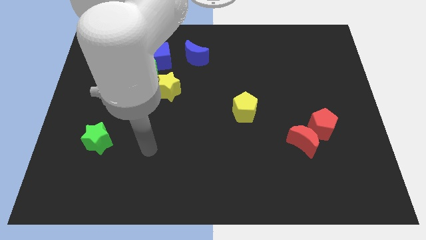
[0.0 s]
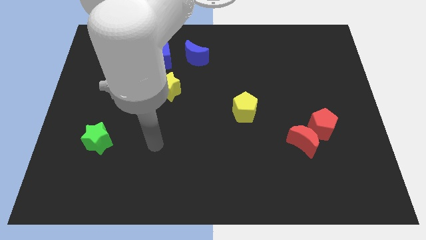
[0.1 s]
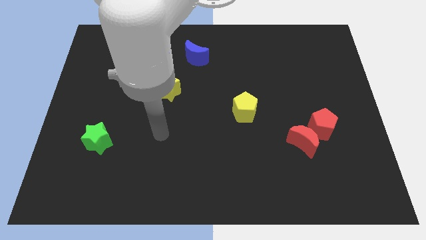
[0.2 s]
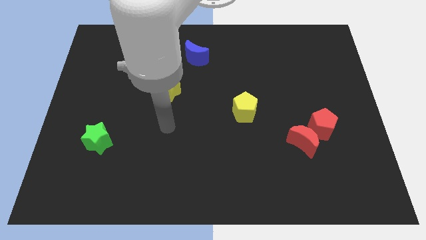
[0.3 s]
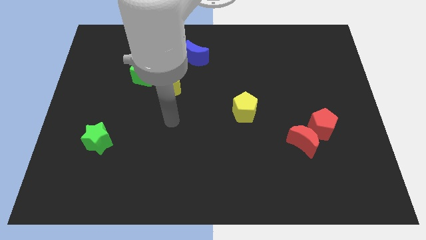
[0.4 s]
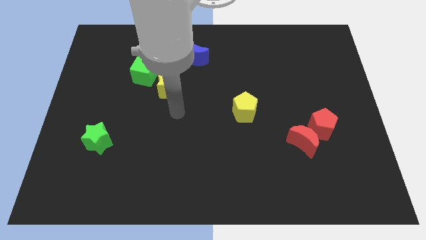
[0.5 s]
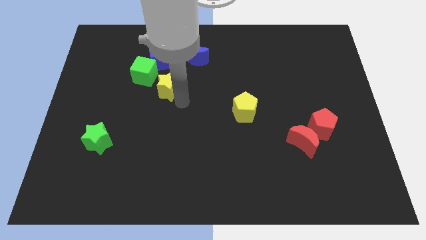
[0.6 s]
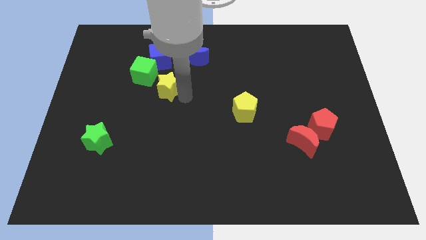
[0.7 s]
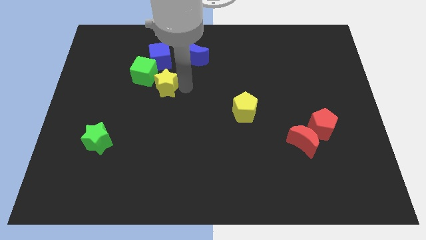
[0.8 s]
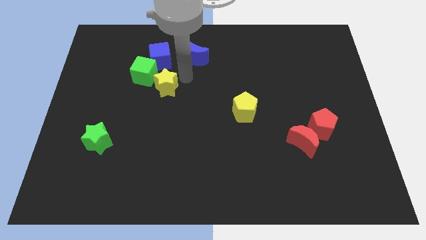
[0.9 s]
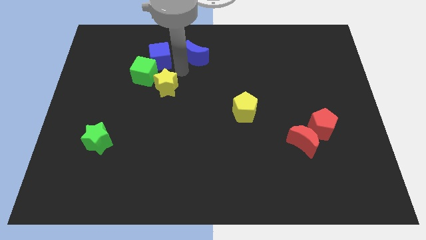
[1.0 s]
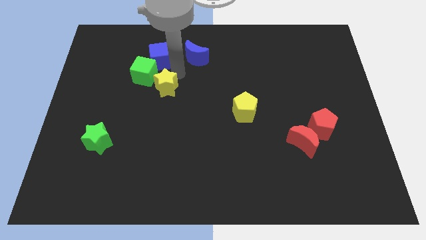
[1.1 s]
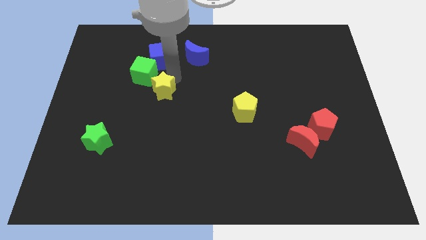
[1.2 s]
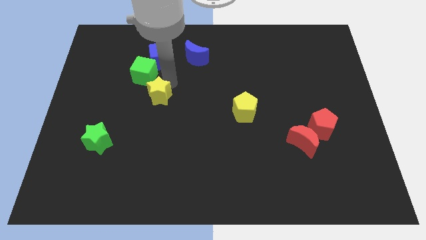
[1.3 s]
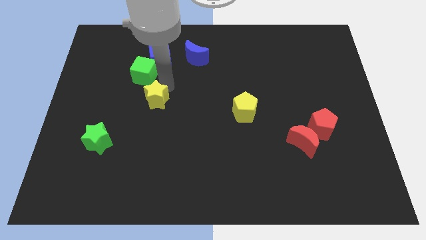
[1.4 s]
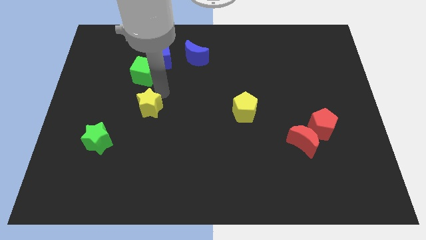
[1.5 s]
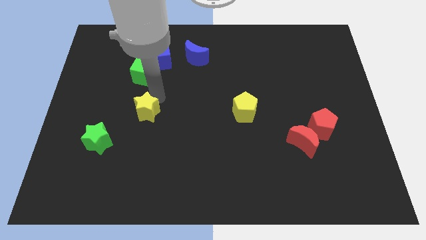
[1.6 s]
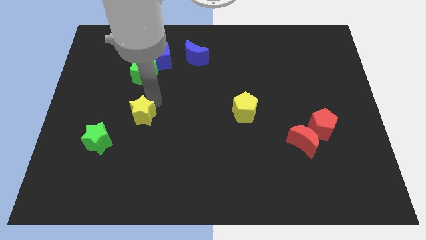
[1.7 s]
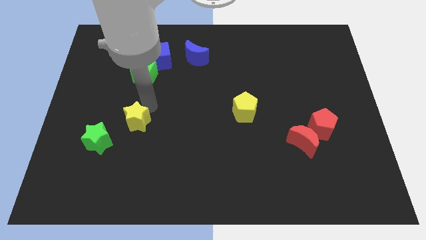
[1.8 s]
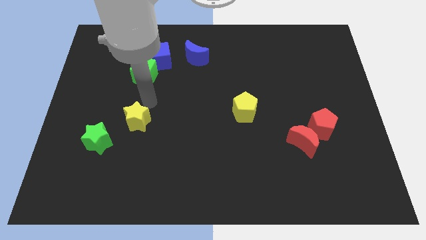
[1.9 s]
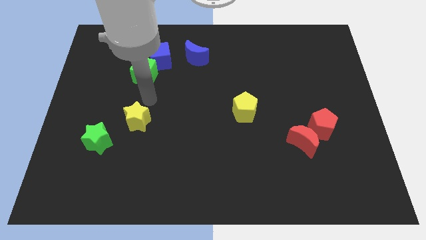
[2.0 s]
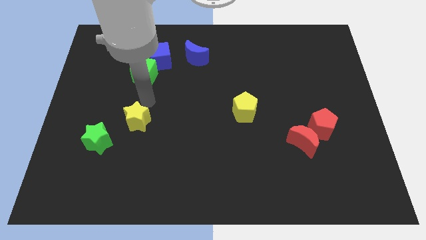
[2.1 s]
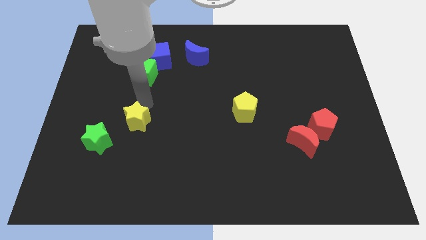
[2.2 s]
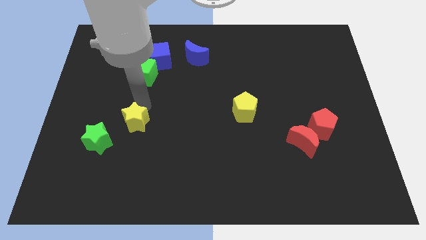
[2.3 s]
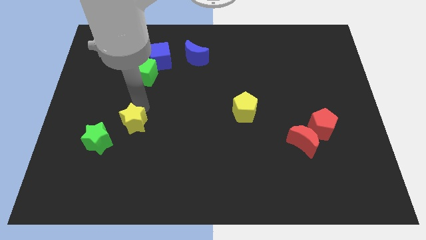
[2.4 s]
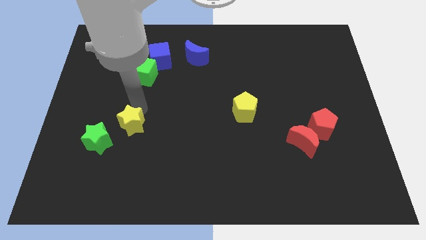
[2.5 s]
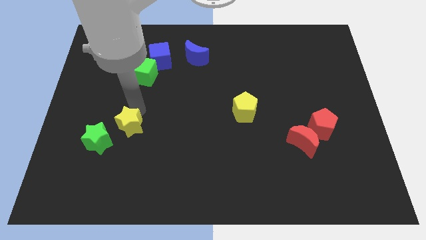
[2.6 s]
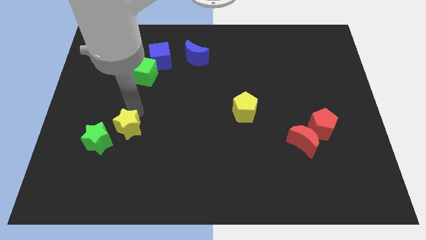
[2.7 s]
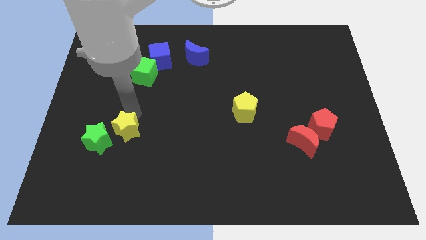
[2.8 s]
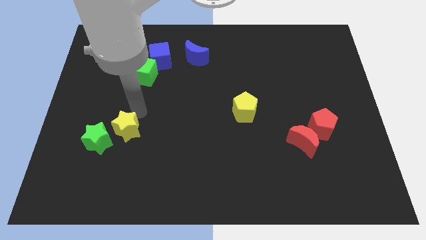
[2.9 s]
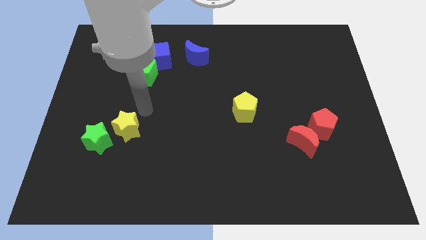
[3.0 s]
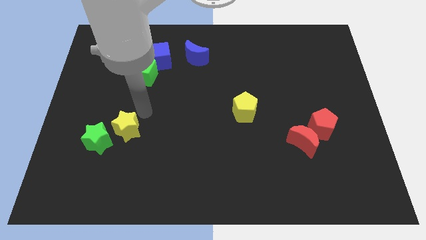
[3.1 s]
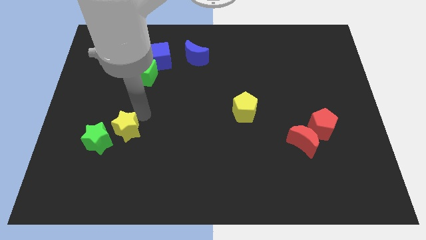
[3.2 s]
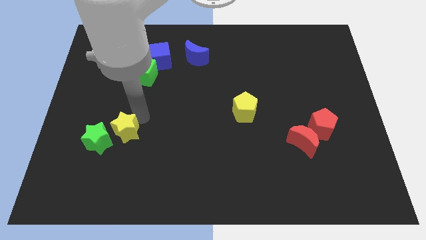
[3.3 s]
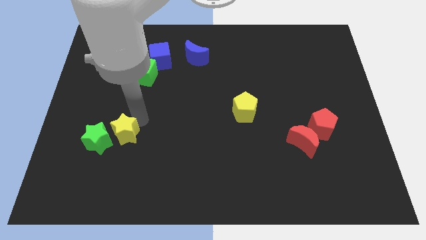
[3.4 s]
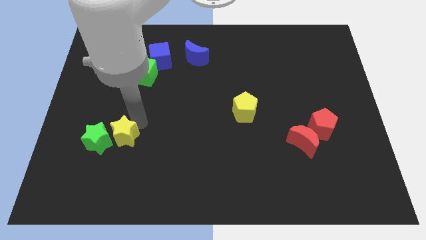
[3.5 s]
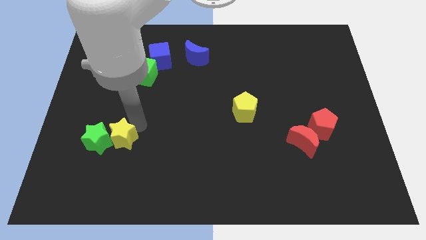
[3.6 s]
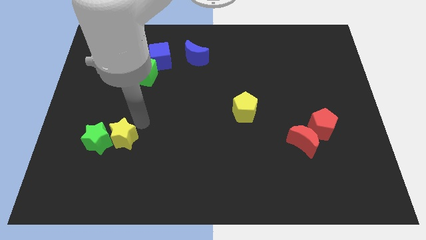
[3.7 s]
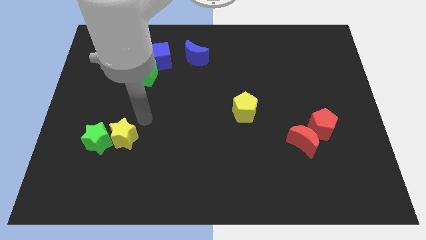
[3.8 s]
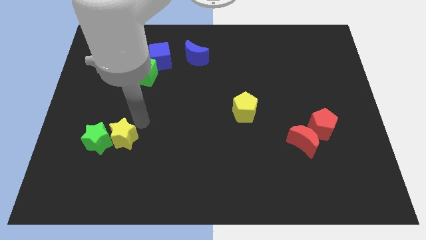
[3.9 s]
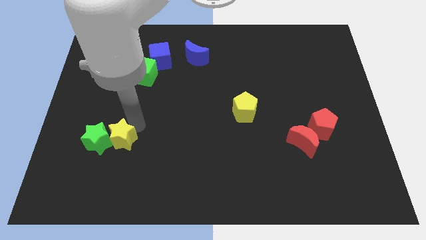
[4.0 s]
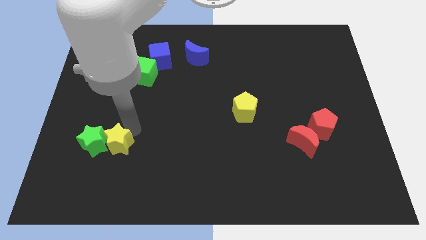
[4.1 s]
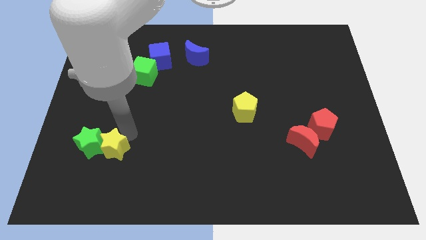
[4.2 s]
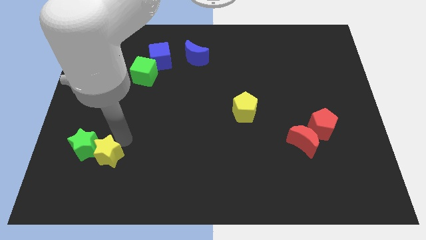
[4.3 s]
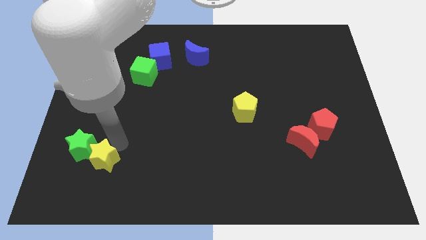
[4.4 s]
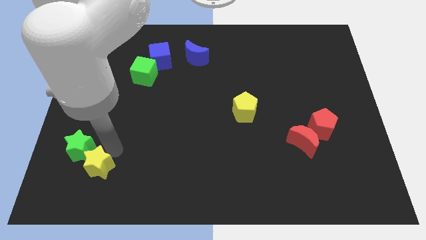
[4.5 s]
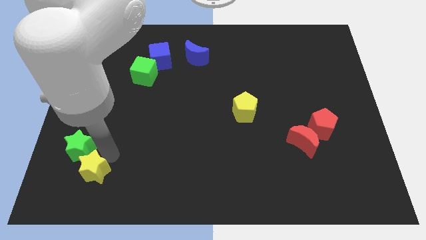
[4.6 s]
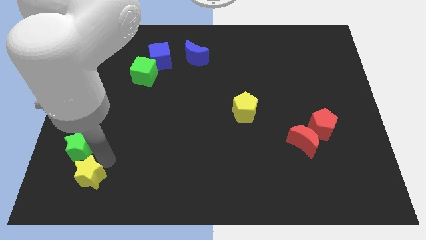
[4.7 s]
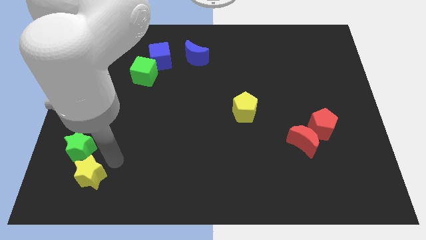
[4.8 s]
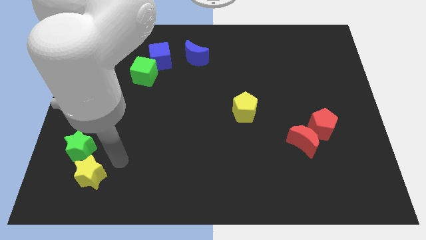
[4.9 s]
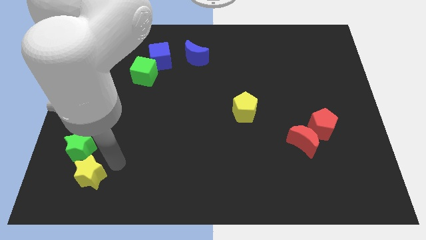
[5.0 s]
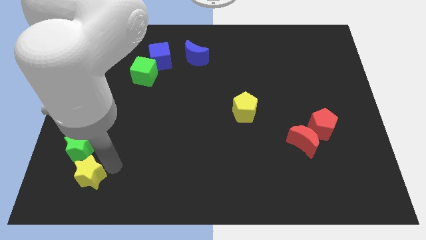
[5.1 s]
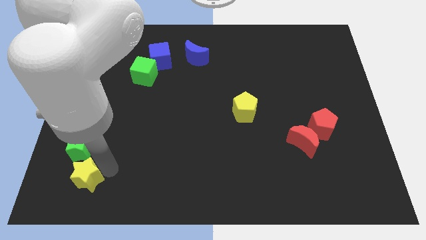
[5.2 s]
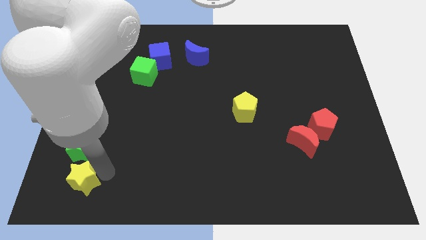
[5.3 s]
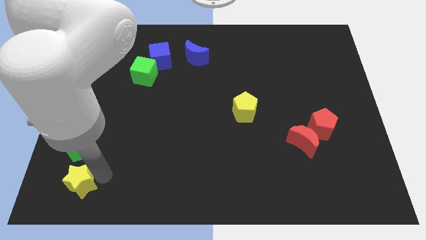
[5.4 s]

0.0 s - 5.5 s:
move the yellow star to the lower left corner

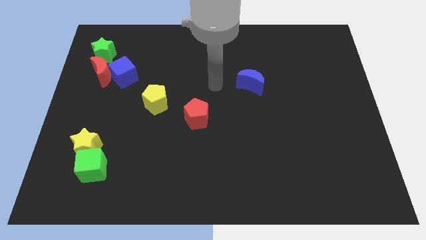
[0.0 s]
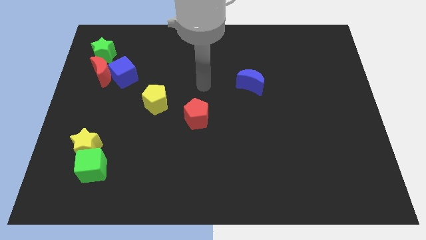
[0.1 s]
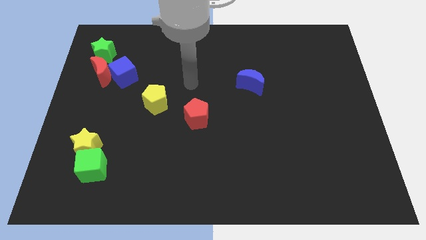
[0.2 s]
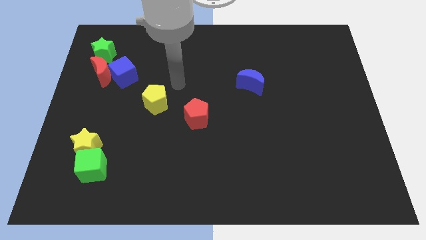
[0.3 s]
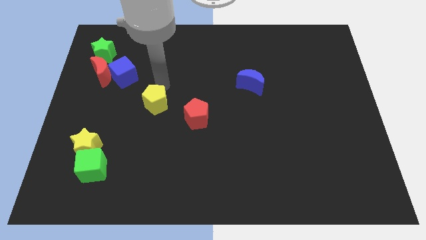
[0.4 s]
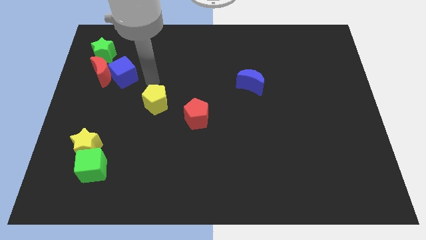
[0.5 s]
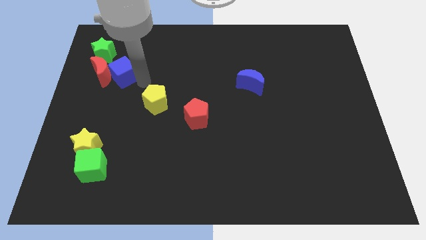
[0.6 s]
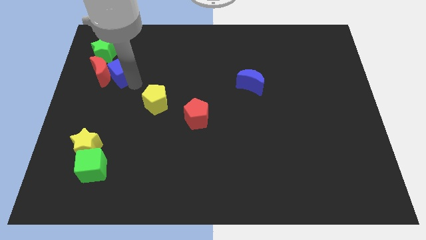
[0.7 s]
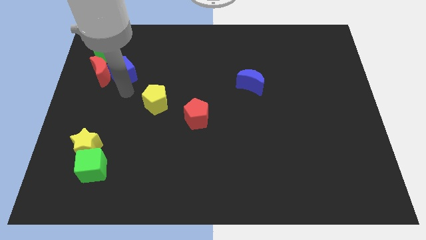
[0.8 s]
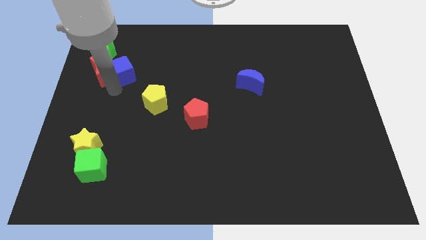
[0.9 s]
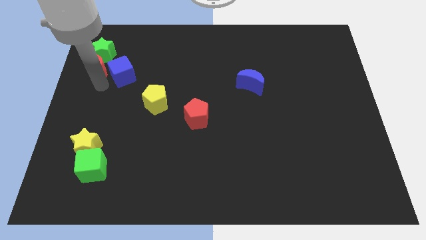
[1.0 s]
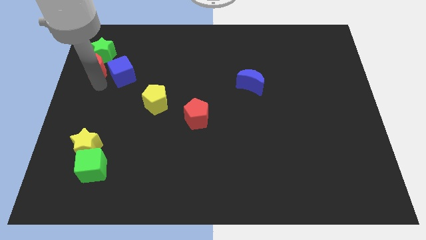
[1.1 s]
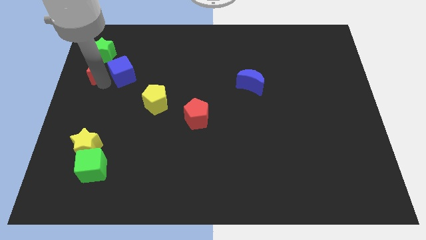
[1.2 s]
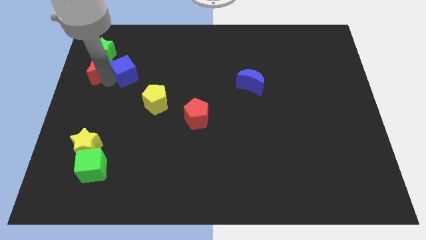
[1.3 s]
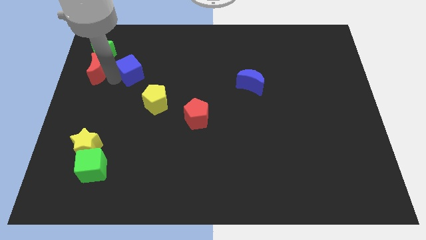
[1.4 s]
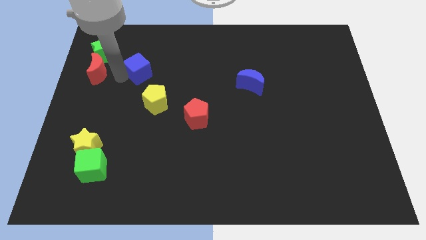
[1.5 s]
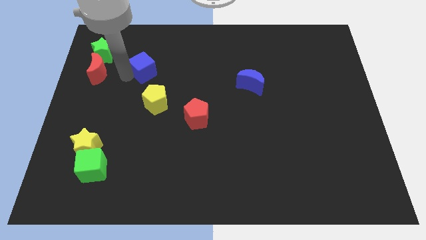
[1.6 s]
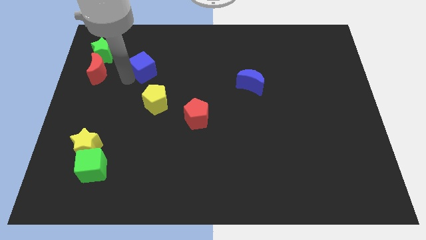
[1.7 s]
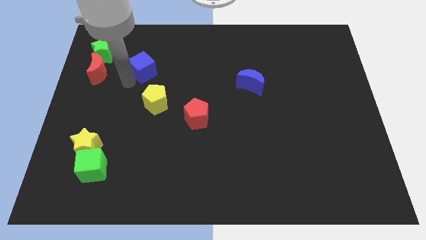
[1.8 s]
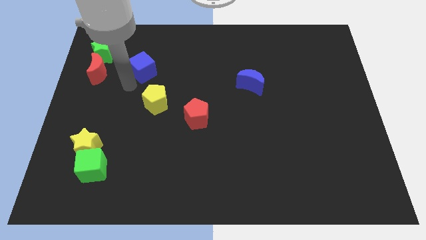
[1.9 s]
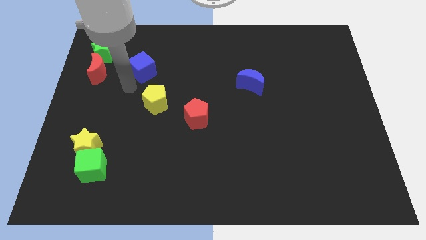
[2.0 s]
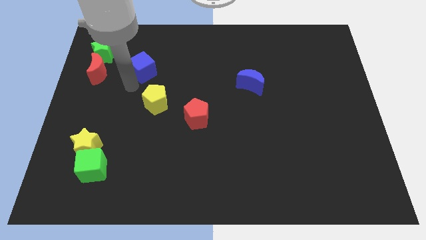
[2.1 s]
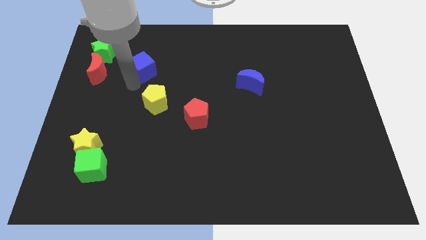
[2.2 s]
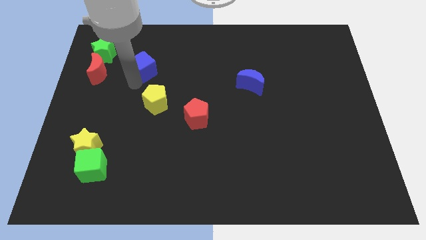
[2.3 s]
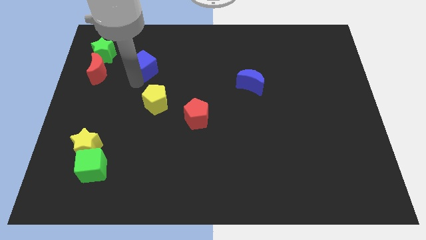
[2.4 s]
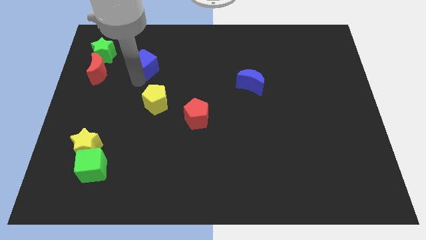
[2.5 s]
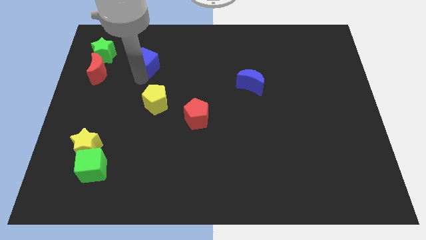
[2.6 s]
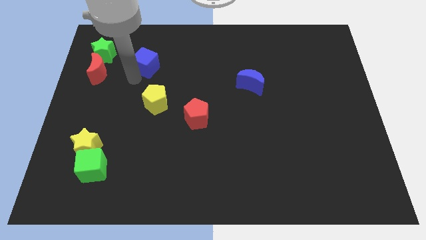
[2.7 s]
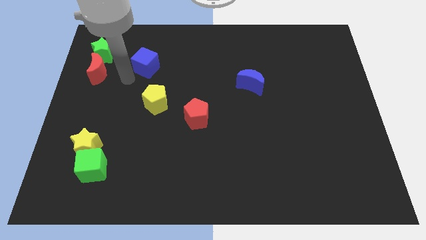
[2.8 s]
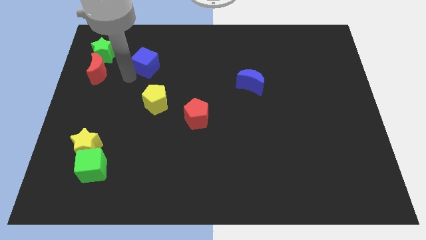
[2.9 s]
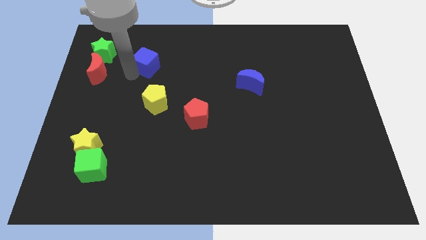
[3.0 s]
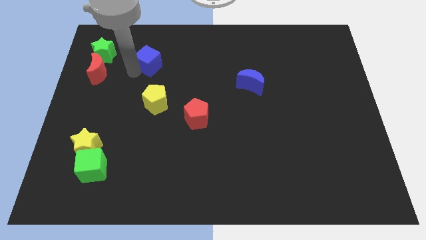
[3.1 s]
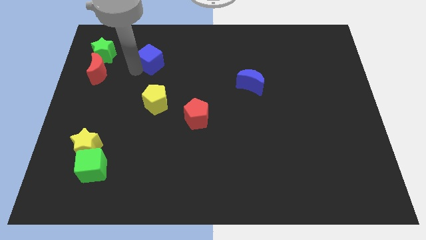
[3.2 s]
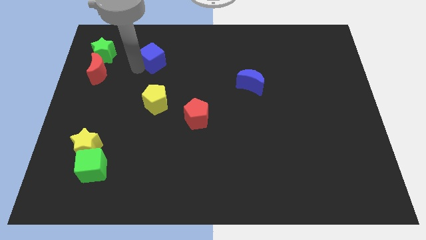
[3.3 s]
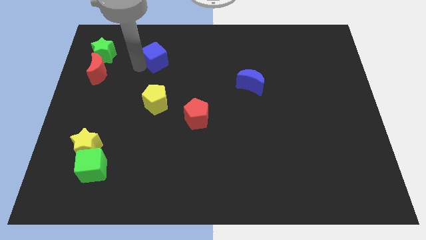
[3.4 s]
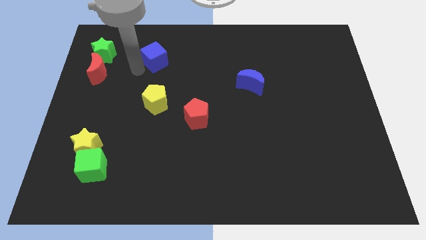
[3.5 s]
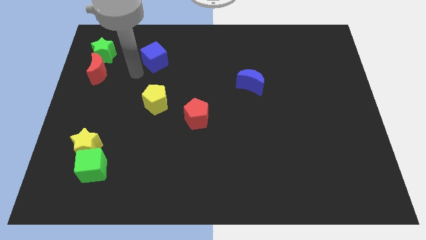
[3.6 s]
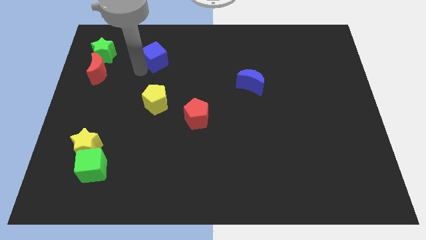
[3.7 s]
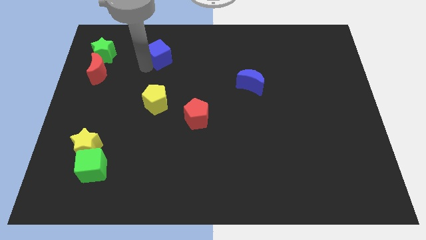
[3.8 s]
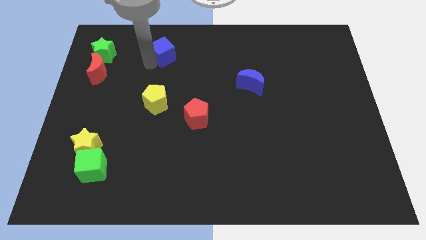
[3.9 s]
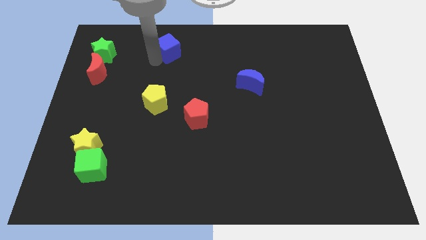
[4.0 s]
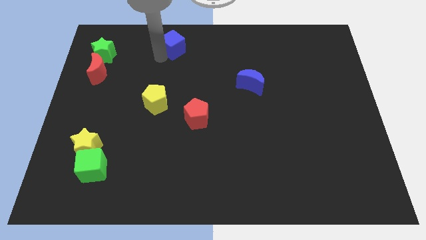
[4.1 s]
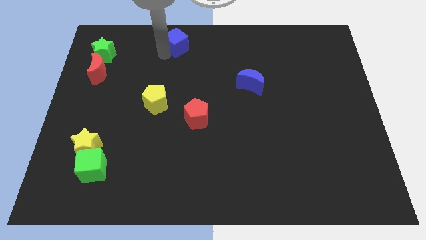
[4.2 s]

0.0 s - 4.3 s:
move the blue cube to the top side
